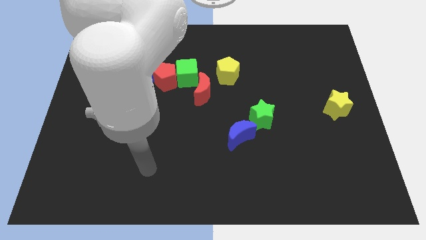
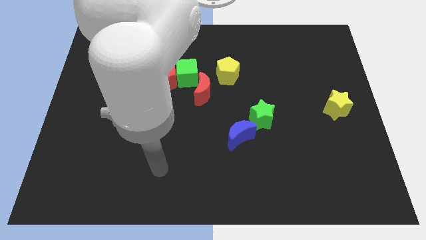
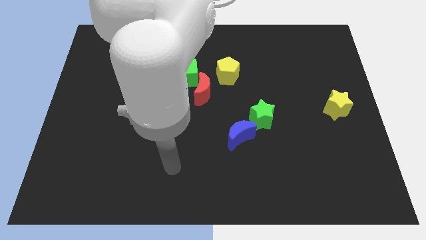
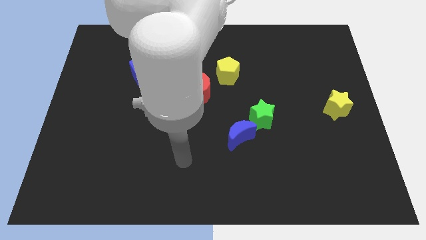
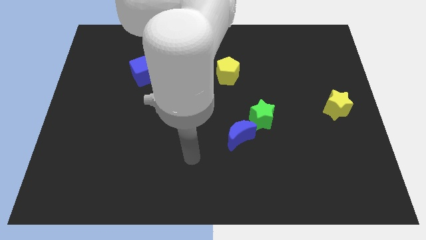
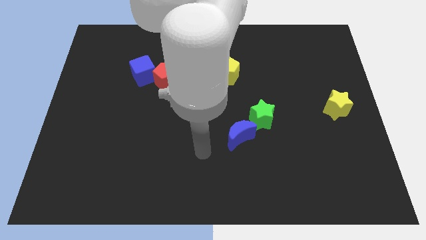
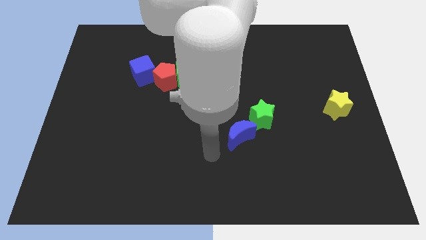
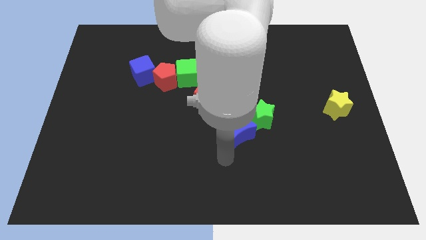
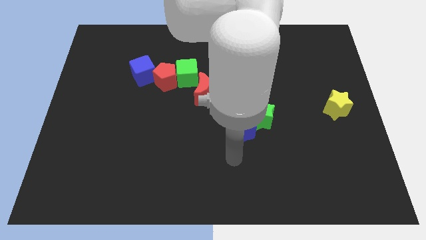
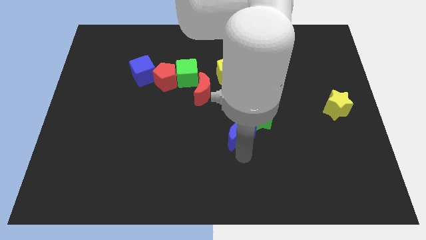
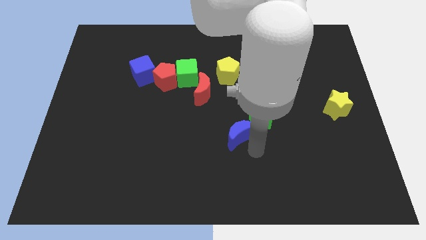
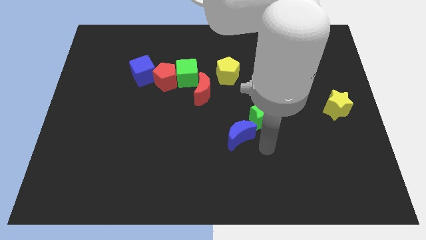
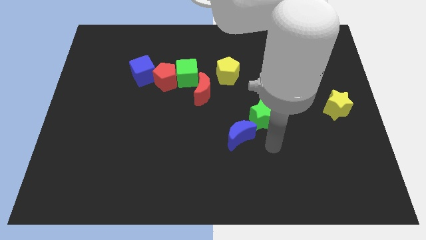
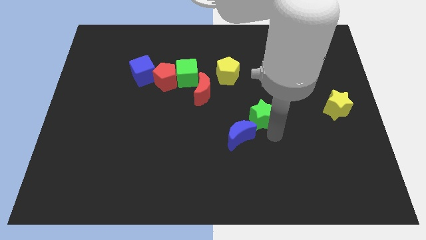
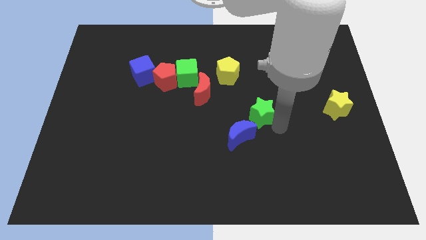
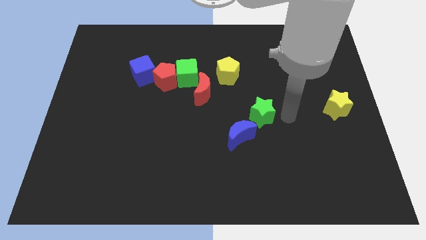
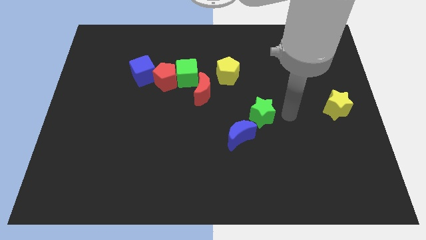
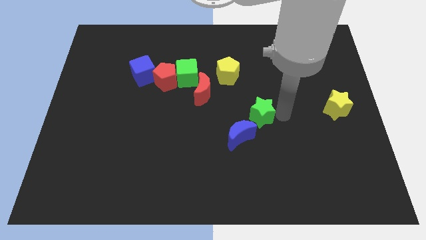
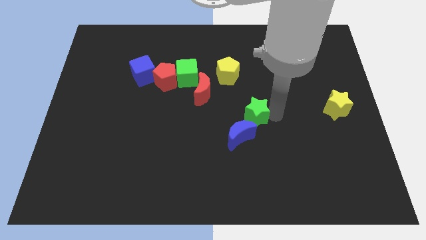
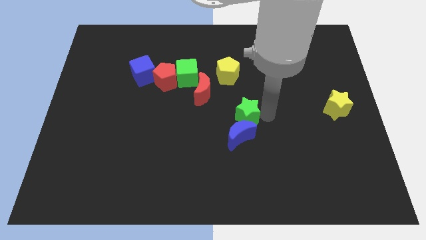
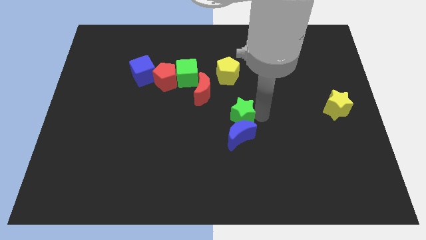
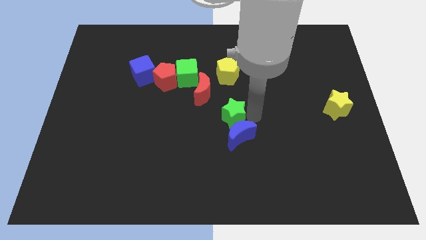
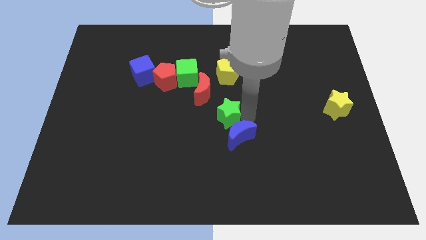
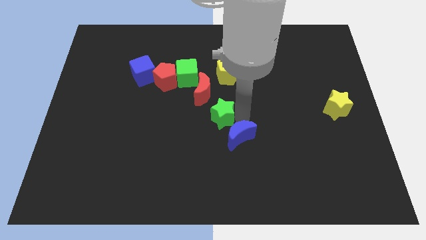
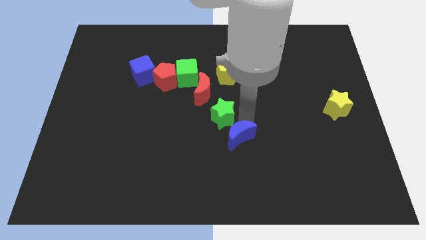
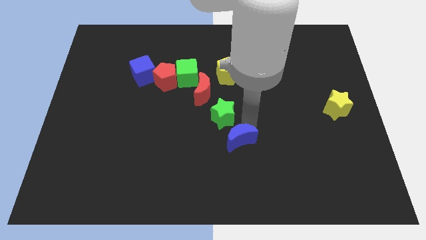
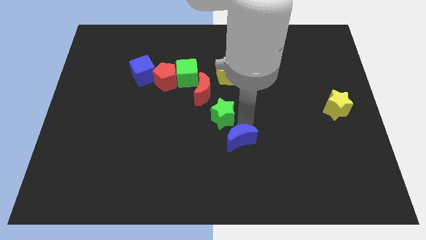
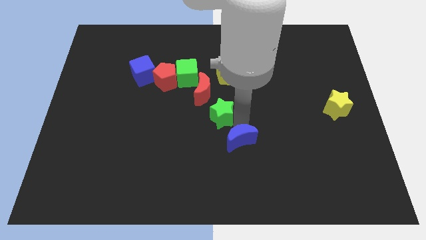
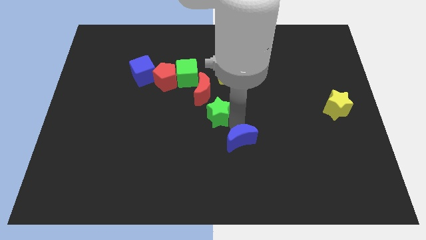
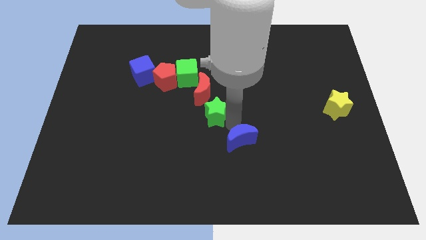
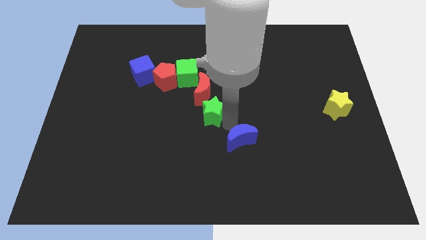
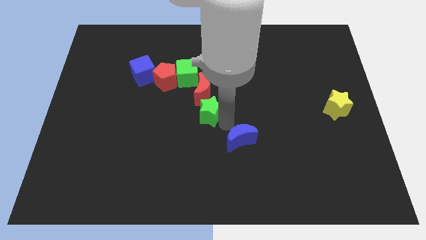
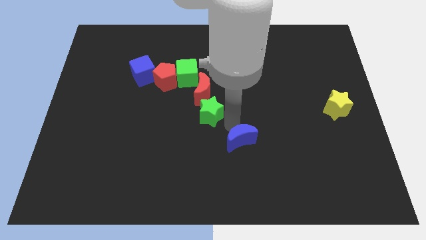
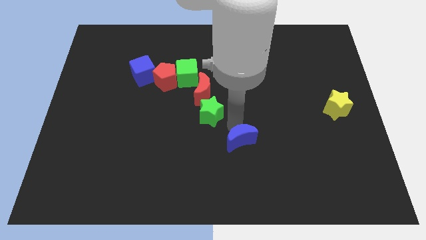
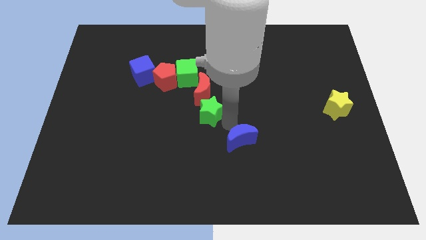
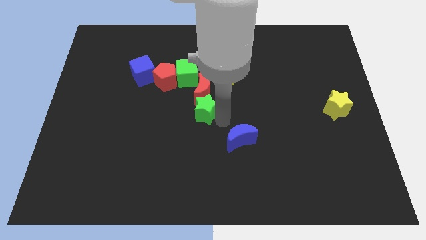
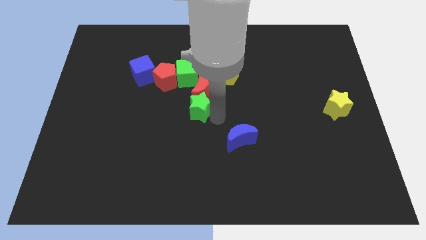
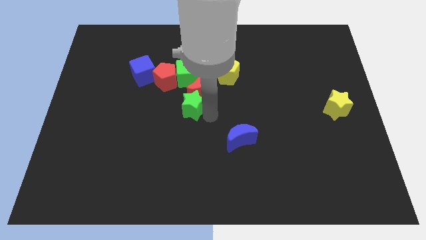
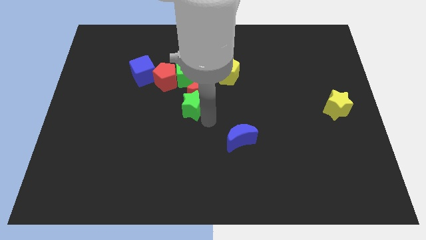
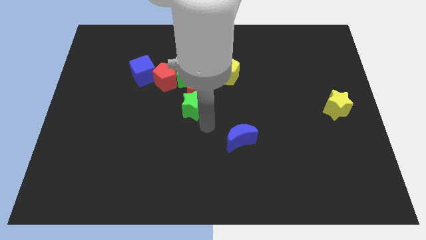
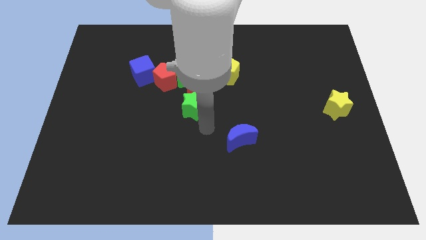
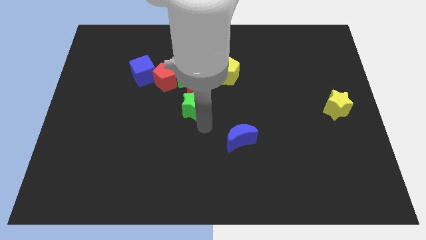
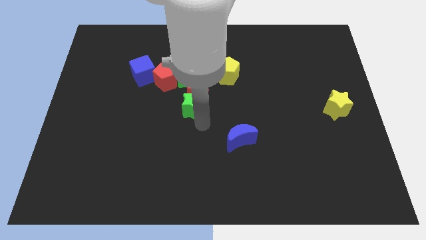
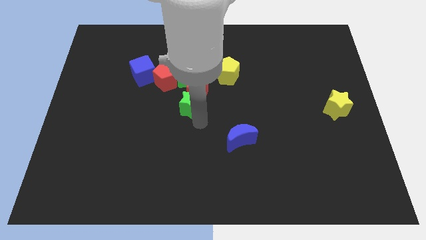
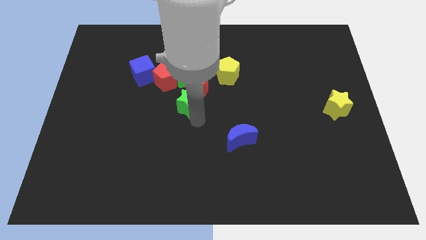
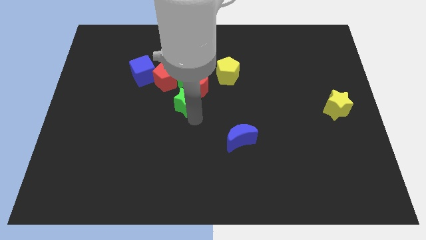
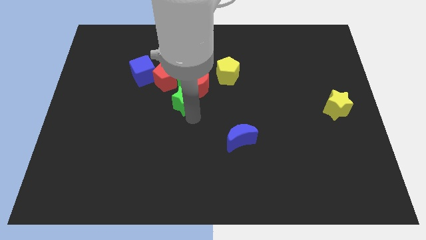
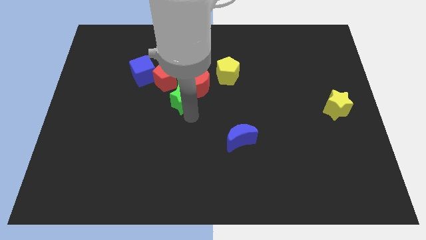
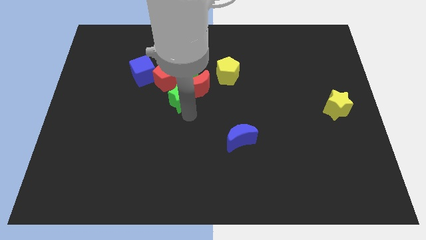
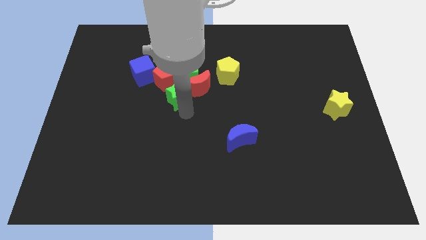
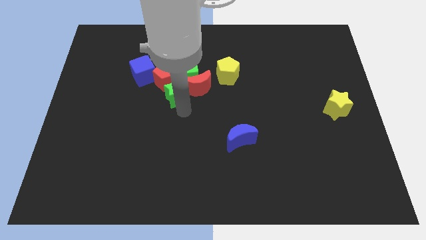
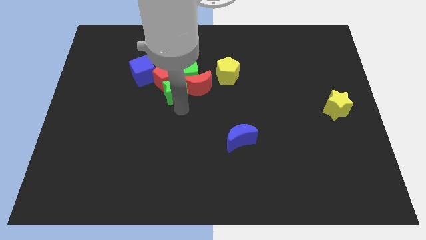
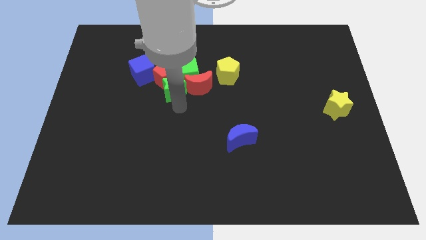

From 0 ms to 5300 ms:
push the green star next to the green cube

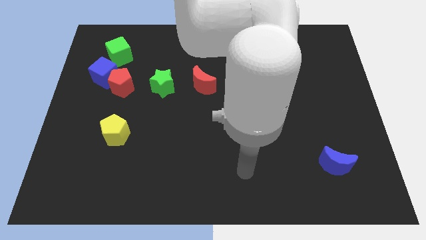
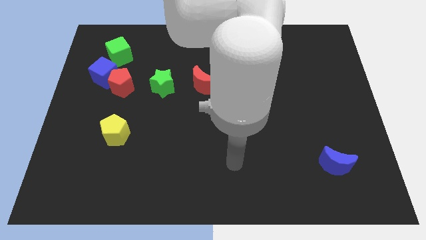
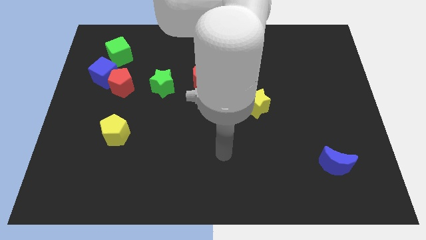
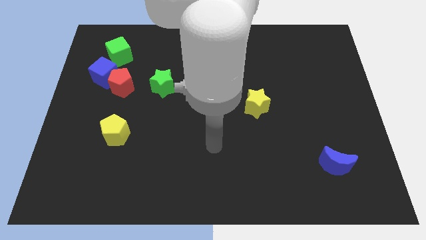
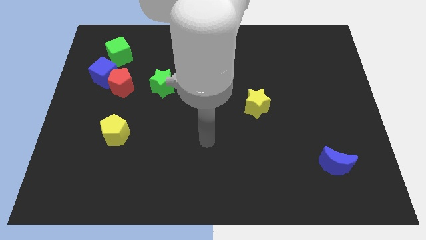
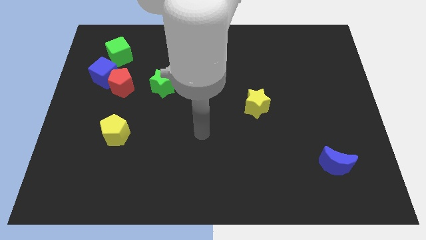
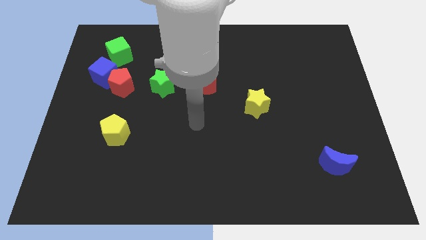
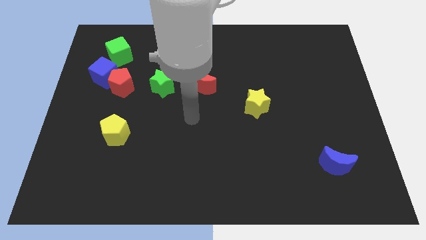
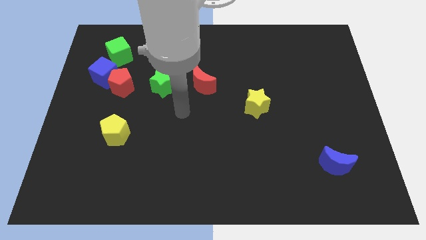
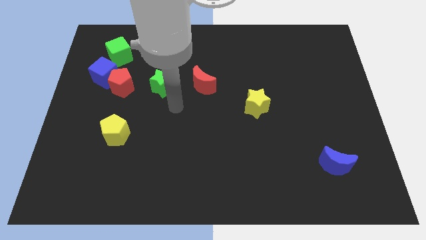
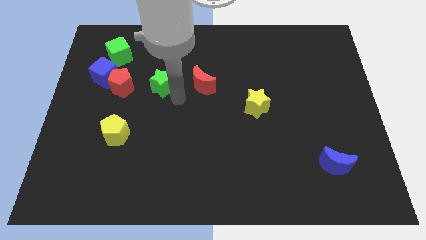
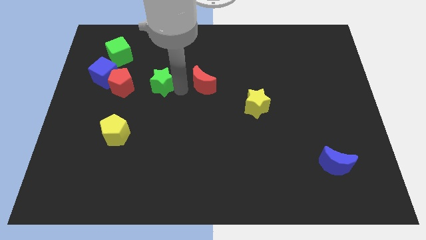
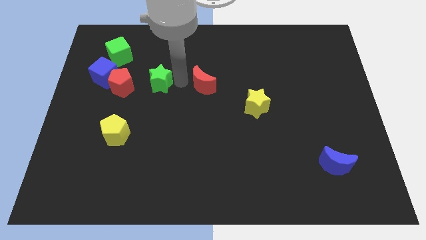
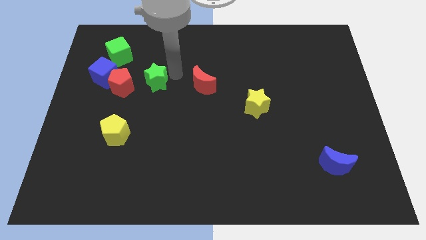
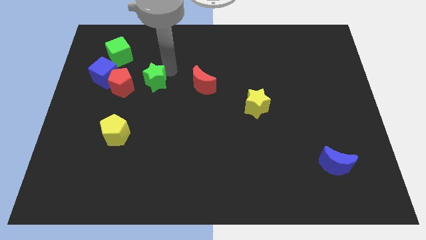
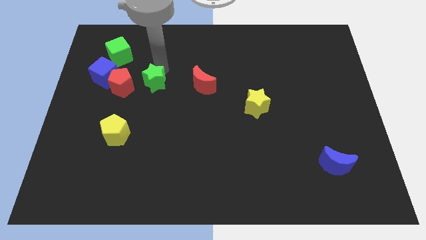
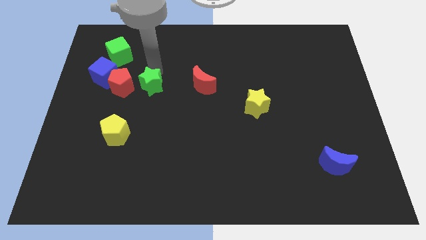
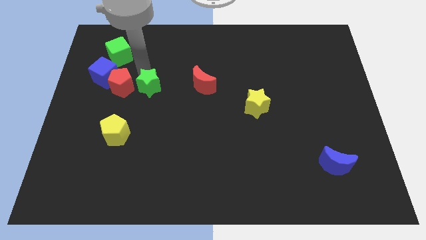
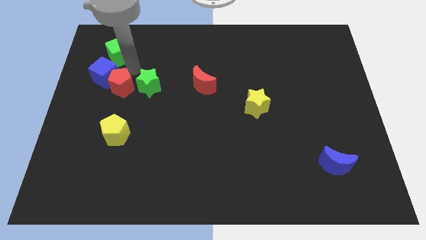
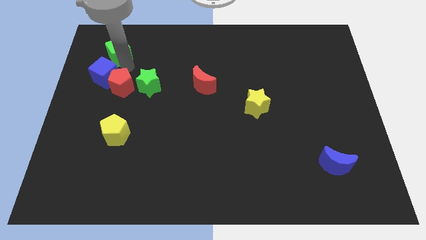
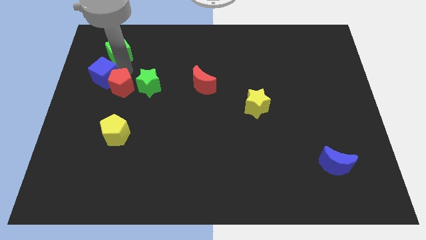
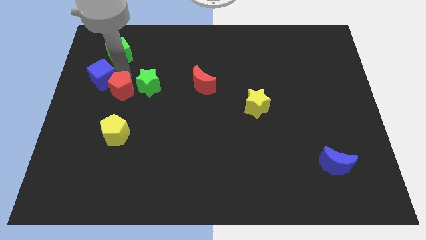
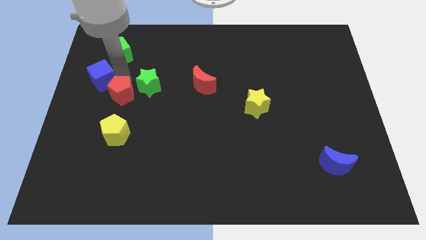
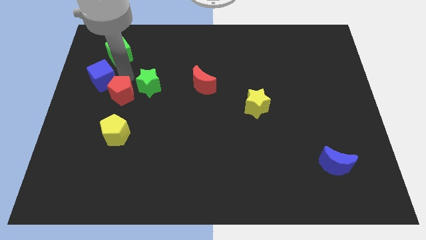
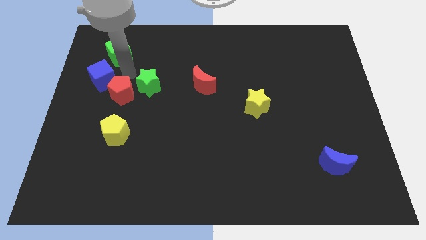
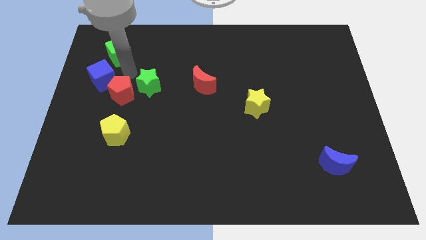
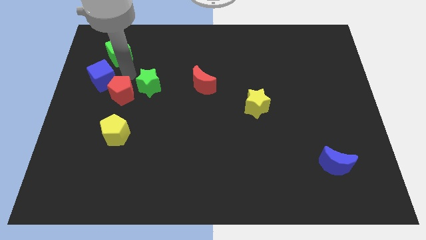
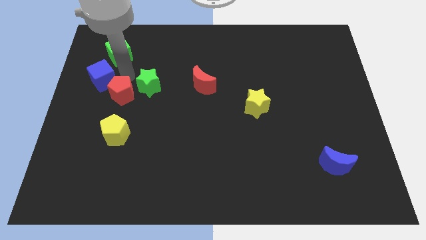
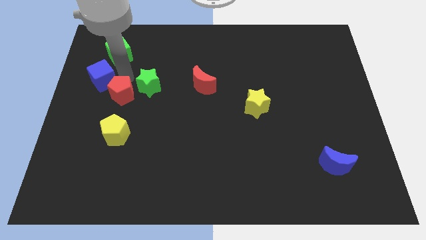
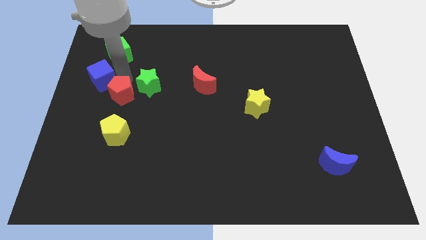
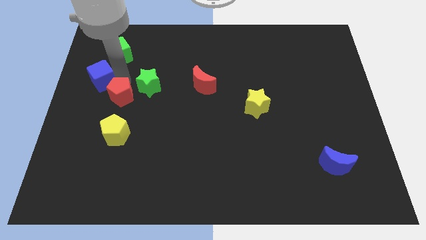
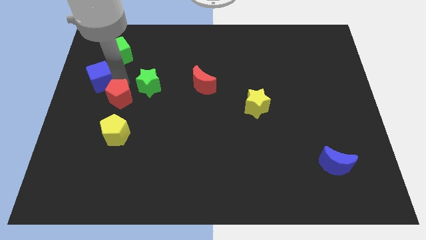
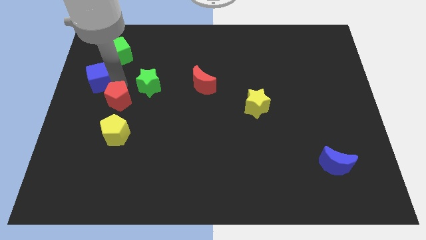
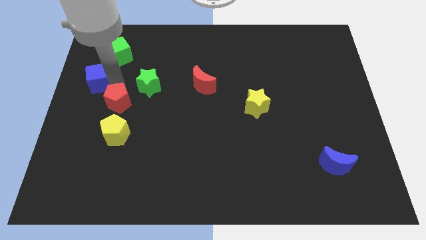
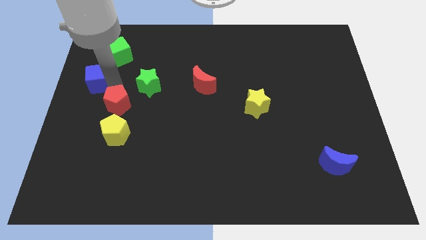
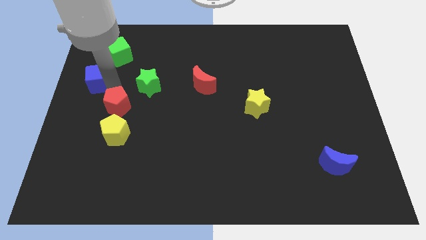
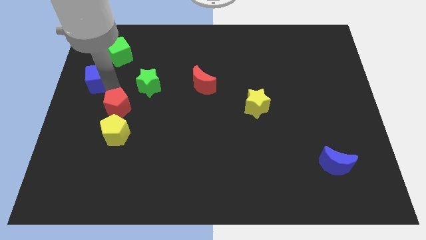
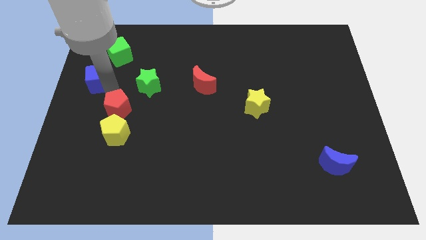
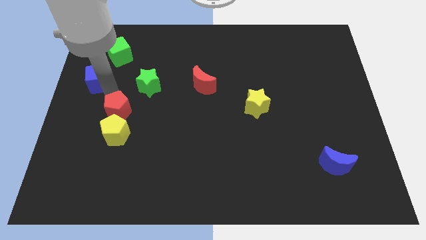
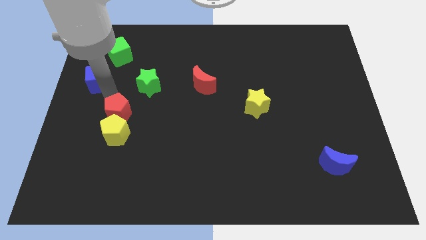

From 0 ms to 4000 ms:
put the red pentagon to the yellow pentagon
